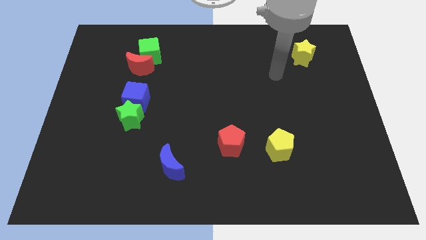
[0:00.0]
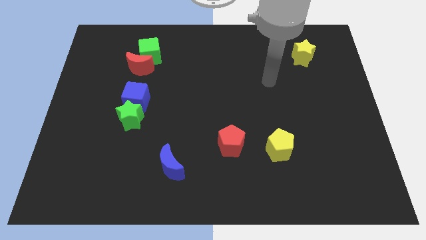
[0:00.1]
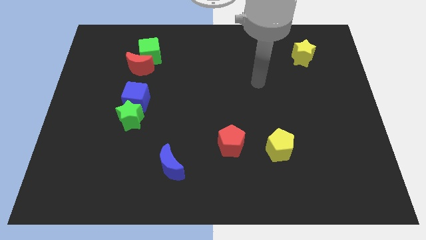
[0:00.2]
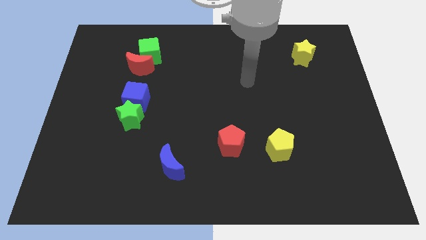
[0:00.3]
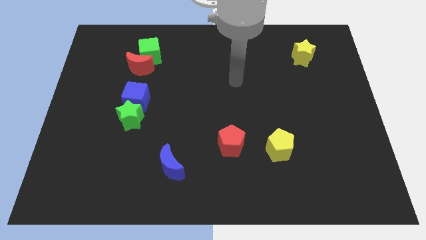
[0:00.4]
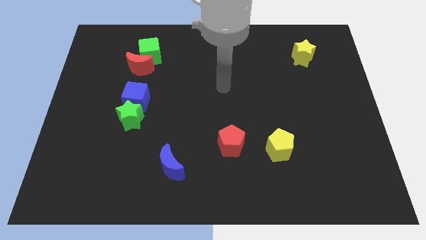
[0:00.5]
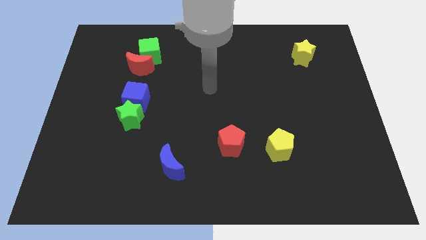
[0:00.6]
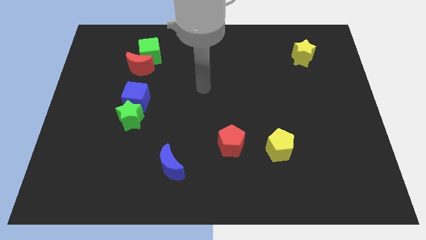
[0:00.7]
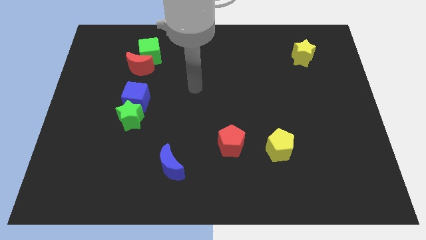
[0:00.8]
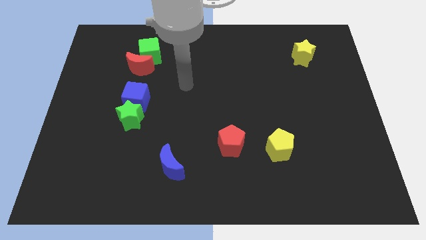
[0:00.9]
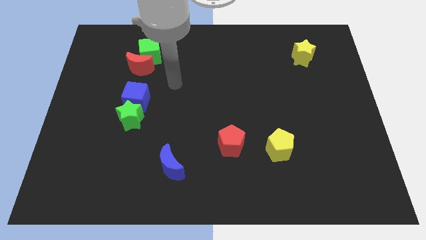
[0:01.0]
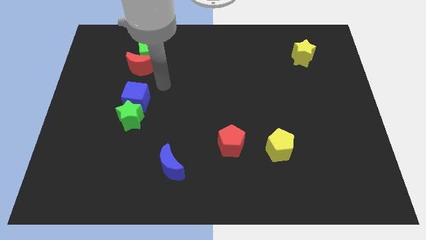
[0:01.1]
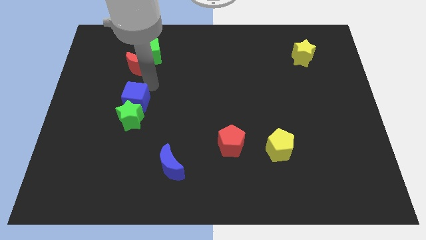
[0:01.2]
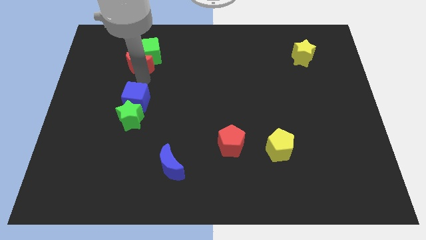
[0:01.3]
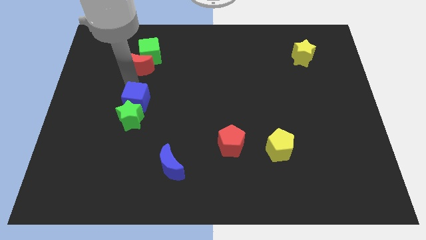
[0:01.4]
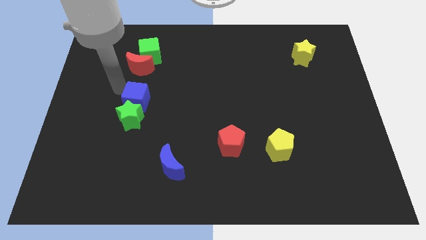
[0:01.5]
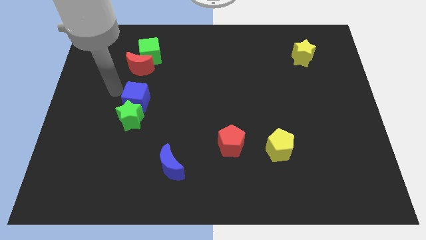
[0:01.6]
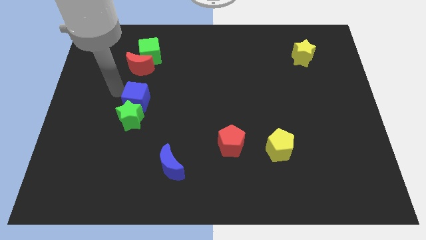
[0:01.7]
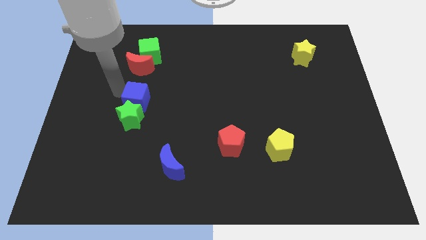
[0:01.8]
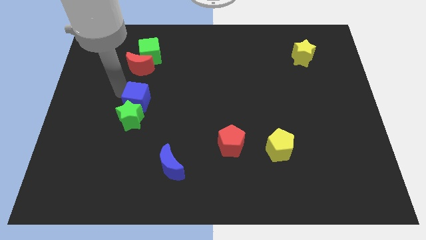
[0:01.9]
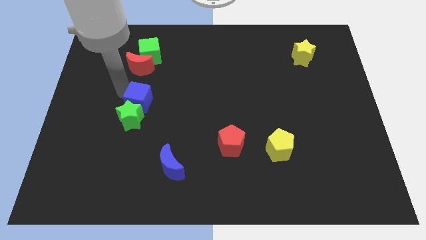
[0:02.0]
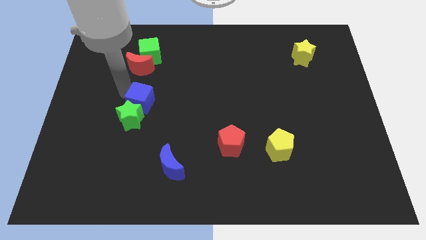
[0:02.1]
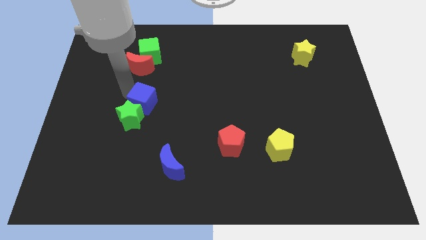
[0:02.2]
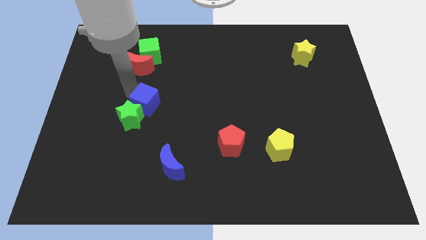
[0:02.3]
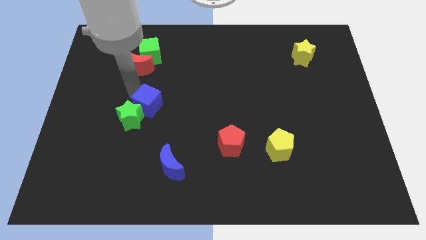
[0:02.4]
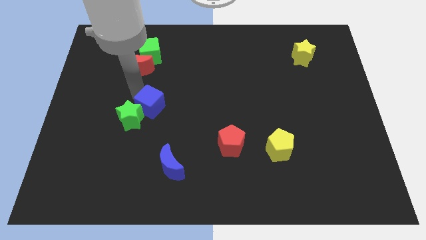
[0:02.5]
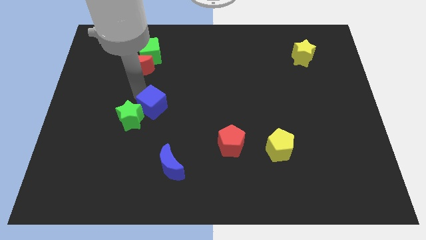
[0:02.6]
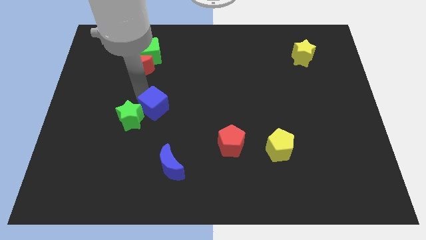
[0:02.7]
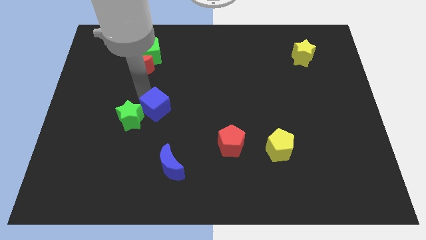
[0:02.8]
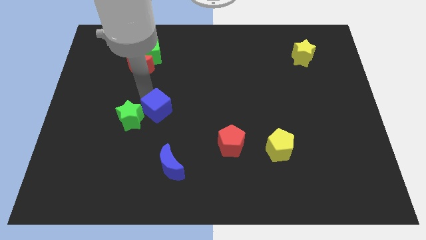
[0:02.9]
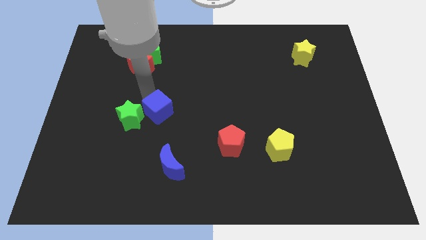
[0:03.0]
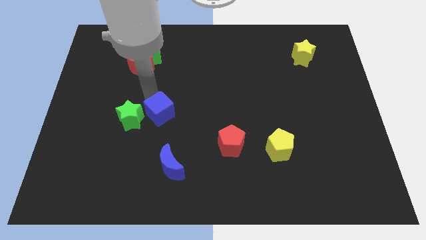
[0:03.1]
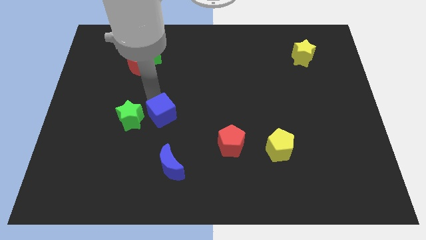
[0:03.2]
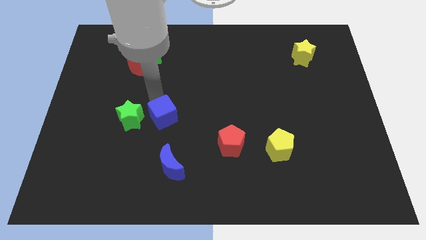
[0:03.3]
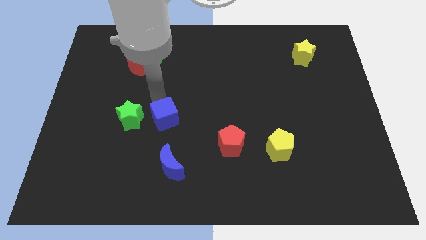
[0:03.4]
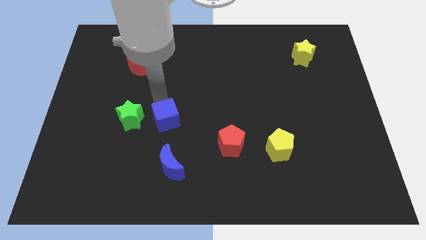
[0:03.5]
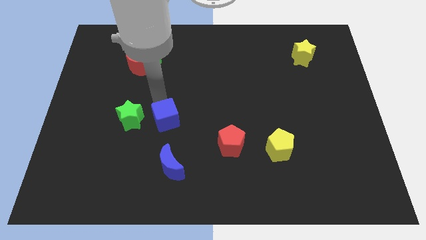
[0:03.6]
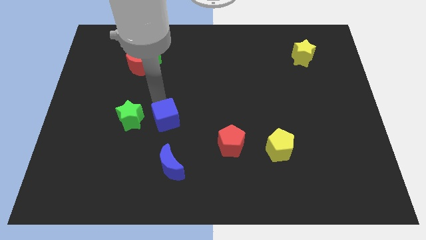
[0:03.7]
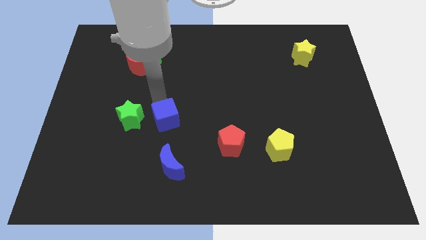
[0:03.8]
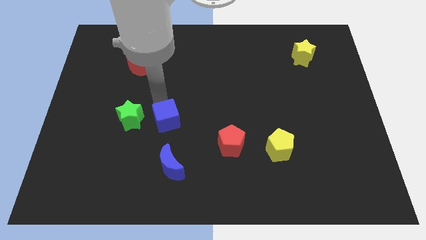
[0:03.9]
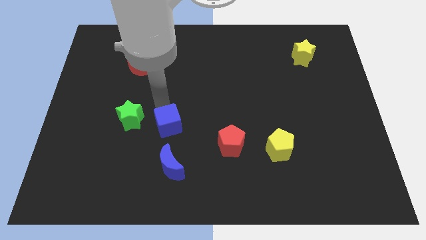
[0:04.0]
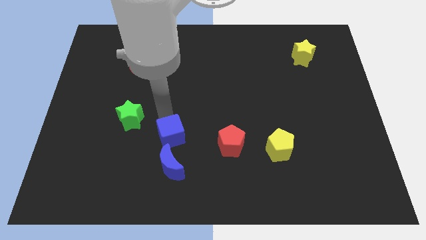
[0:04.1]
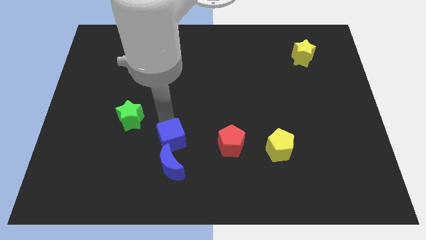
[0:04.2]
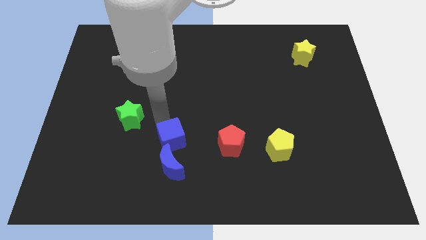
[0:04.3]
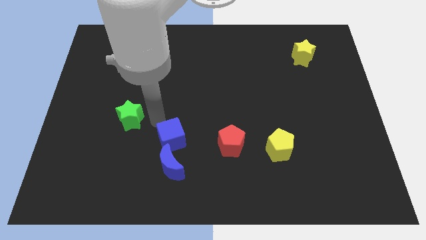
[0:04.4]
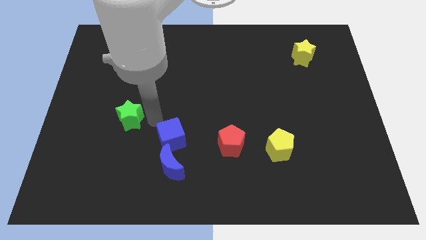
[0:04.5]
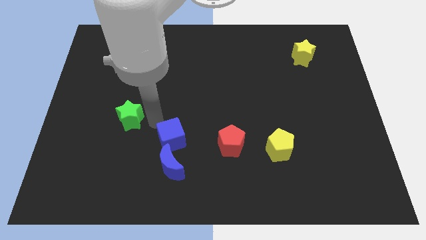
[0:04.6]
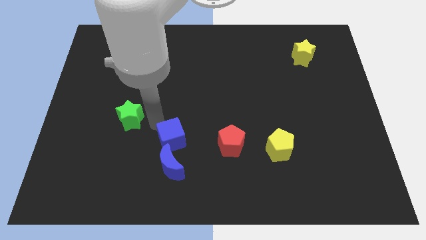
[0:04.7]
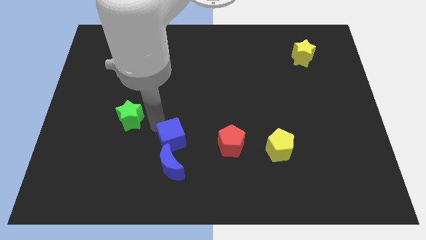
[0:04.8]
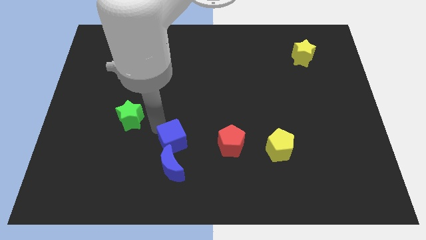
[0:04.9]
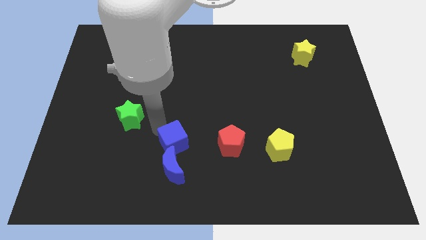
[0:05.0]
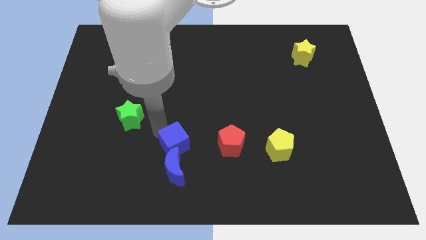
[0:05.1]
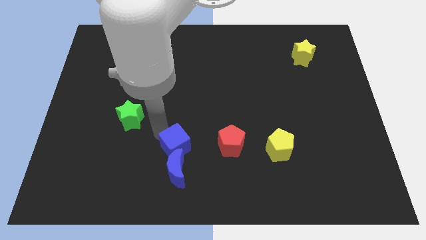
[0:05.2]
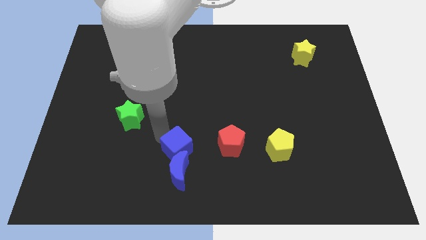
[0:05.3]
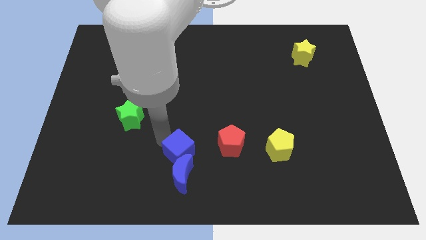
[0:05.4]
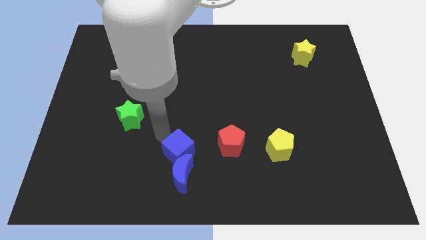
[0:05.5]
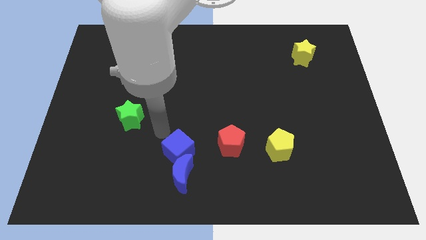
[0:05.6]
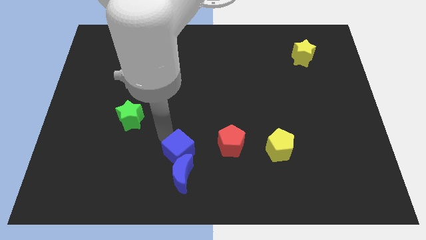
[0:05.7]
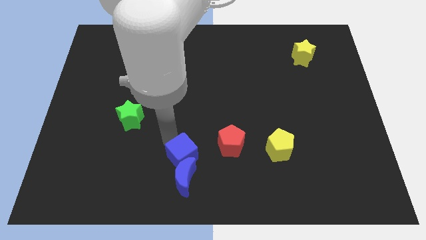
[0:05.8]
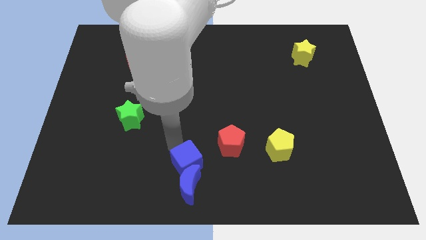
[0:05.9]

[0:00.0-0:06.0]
push the blue cube to the bottom
